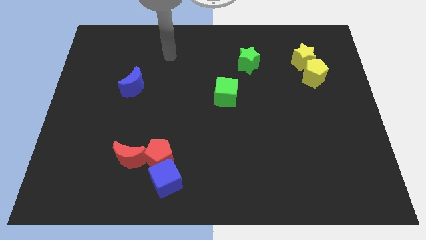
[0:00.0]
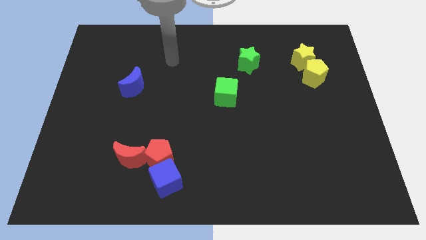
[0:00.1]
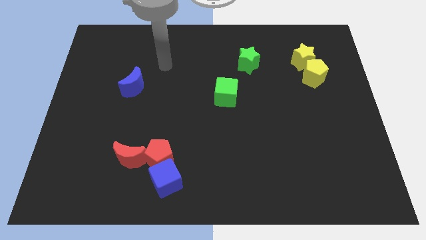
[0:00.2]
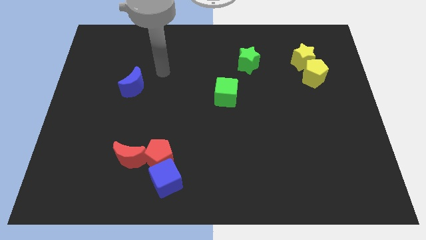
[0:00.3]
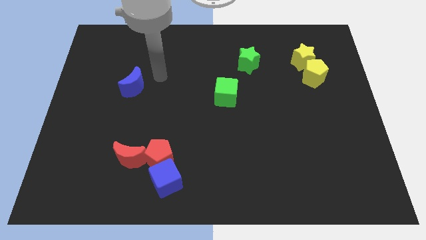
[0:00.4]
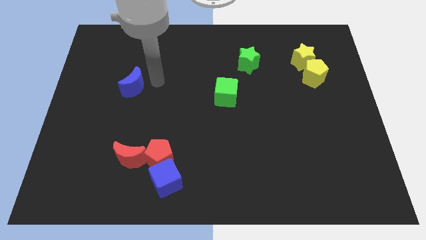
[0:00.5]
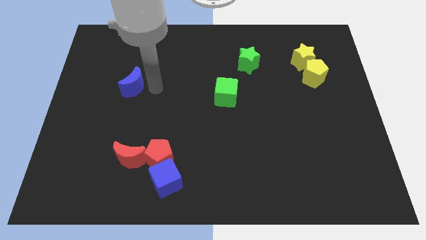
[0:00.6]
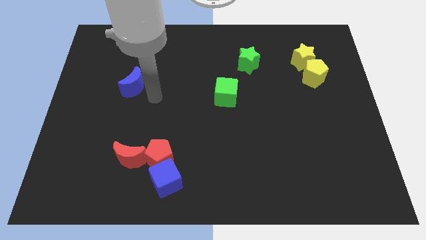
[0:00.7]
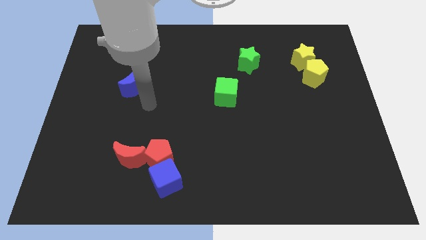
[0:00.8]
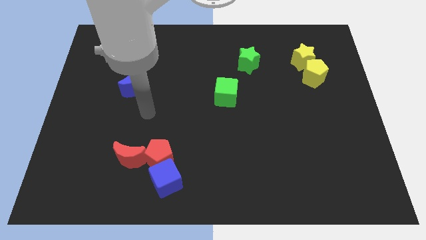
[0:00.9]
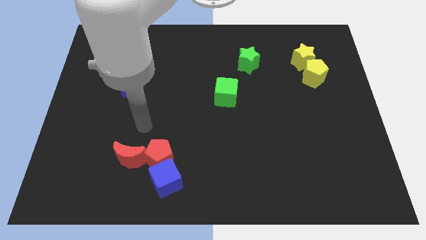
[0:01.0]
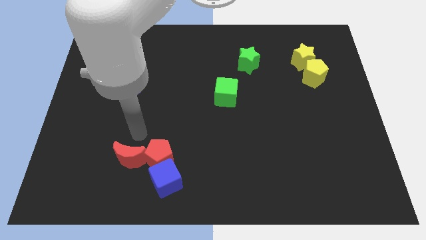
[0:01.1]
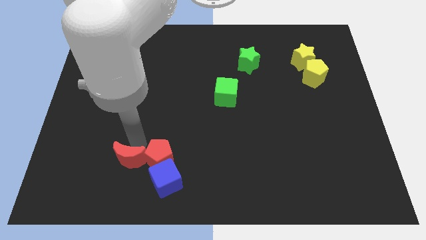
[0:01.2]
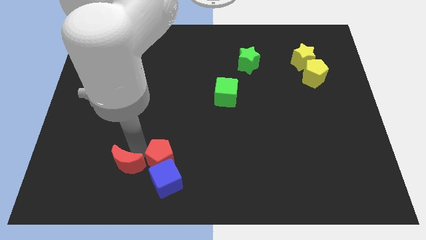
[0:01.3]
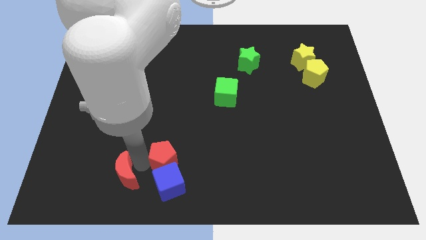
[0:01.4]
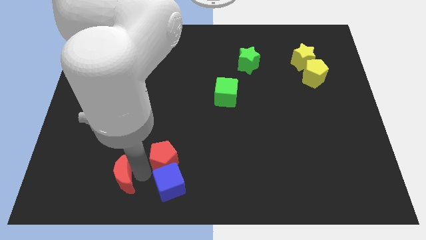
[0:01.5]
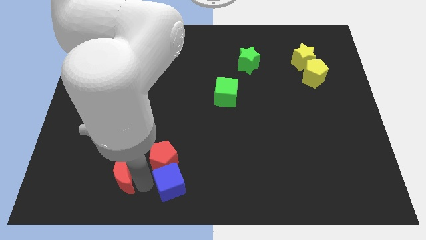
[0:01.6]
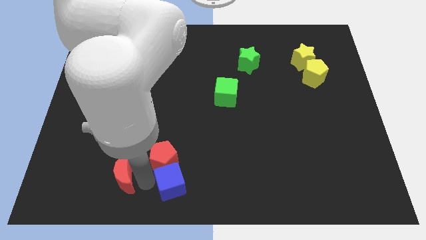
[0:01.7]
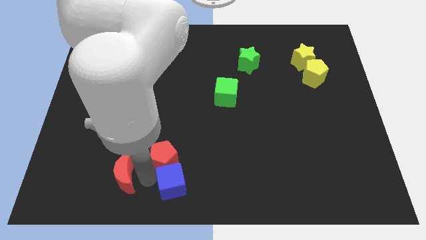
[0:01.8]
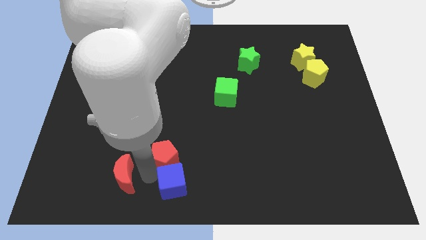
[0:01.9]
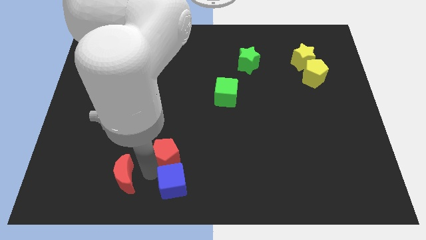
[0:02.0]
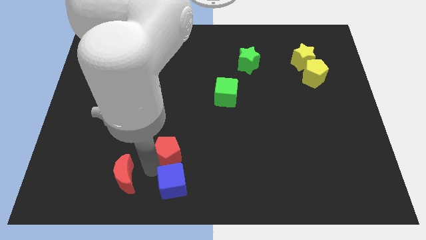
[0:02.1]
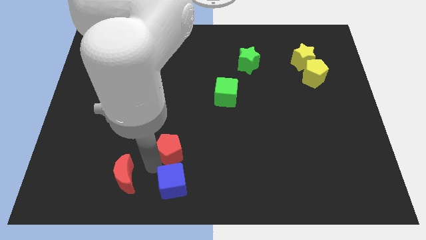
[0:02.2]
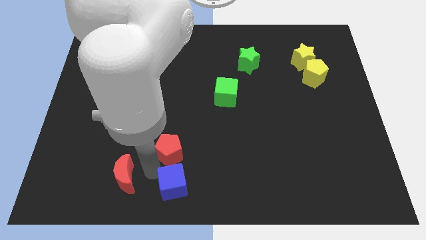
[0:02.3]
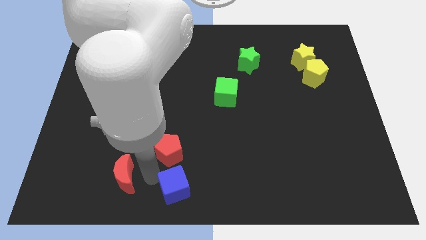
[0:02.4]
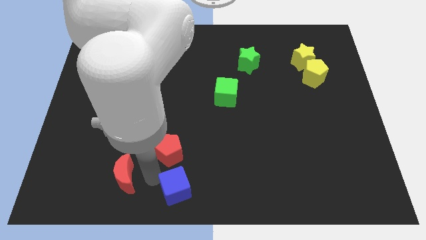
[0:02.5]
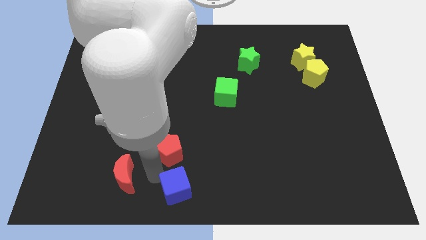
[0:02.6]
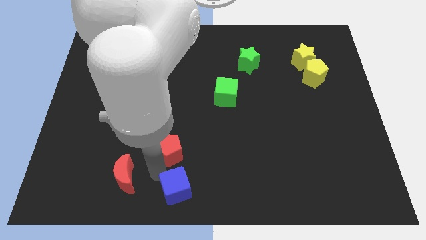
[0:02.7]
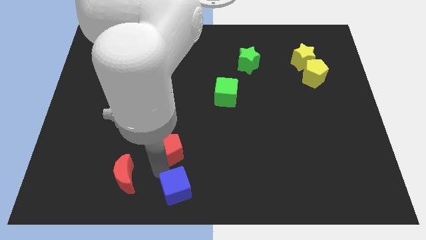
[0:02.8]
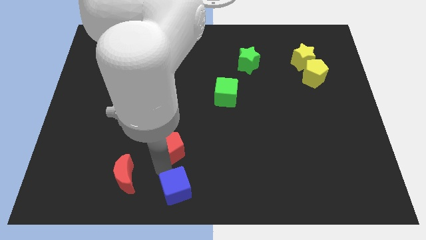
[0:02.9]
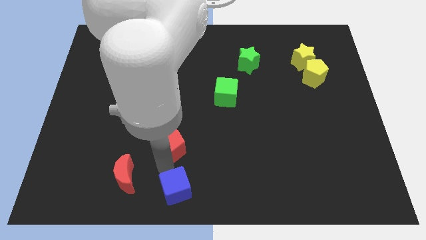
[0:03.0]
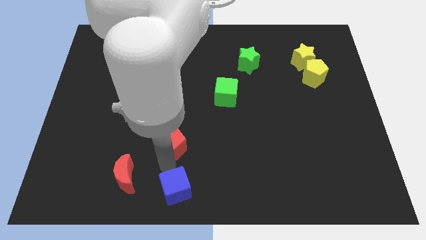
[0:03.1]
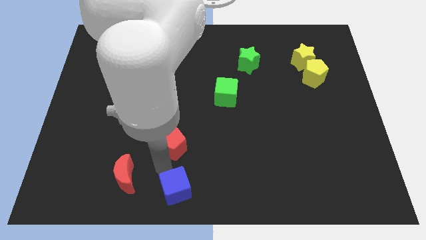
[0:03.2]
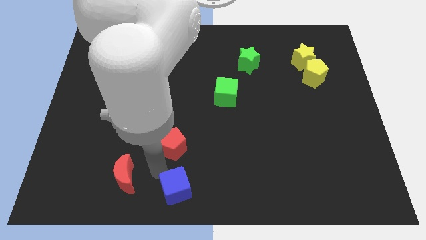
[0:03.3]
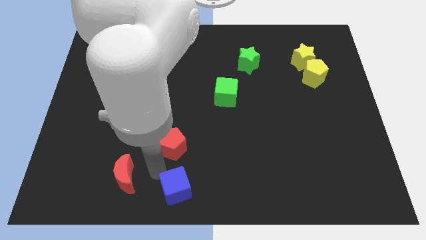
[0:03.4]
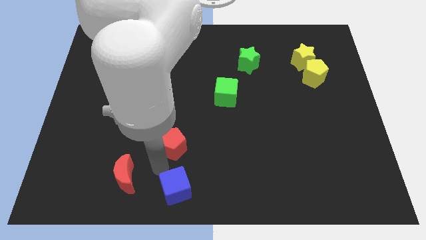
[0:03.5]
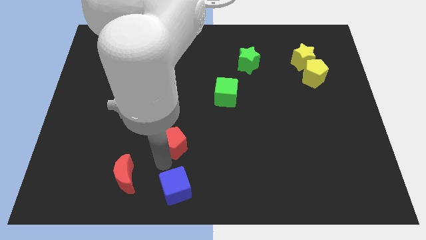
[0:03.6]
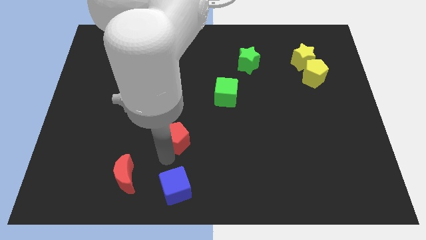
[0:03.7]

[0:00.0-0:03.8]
separate the red pentagon from the blue cube and red moon

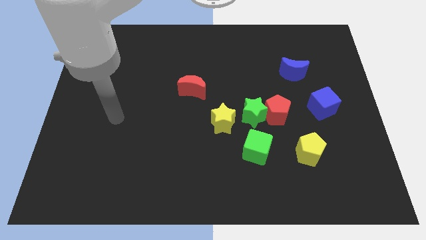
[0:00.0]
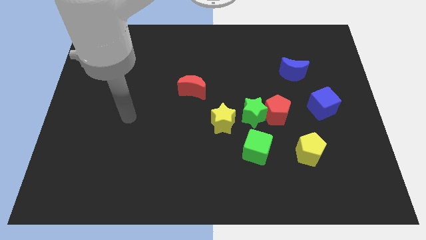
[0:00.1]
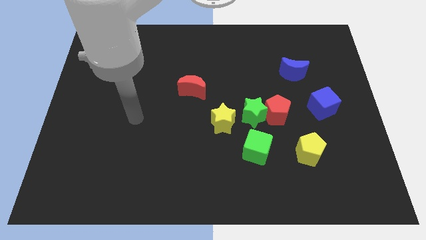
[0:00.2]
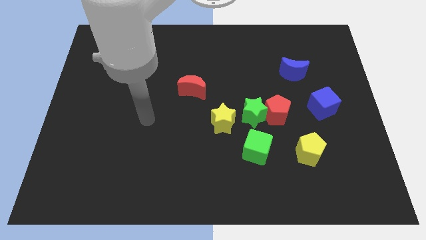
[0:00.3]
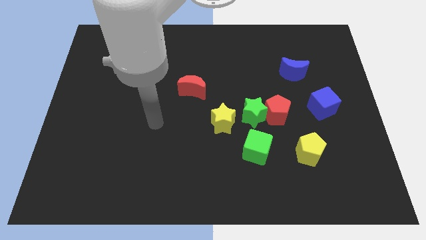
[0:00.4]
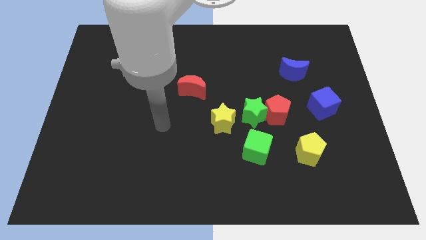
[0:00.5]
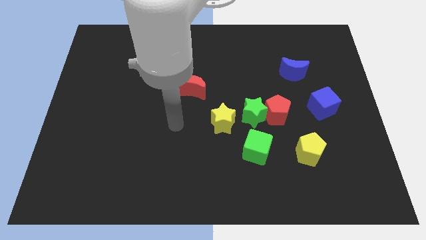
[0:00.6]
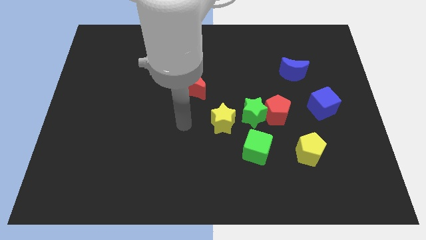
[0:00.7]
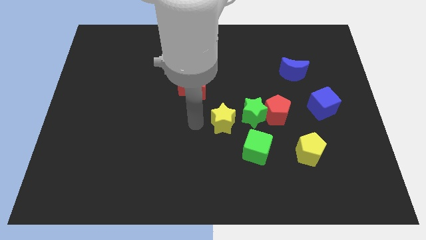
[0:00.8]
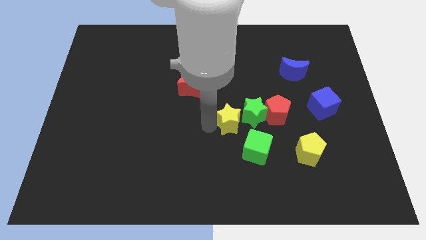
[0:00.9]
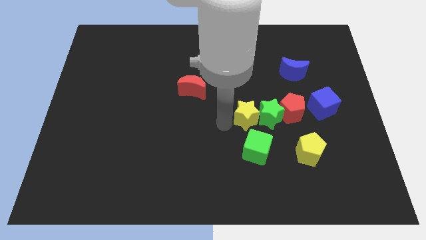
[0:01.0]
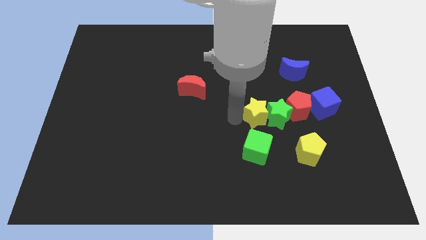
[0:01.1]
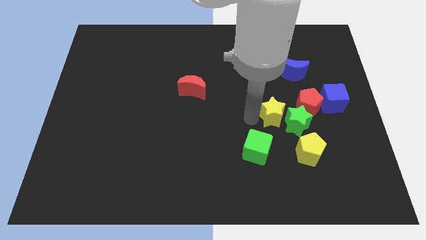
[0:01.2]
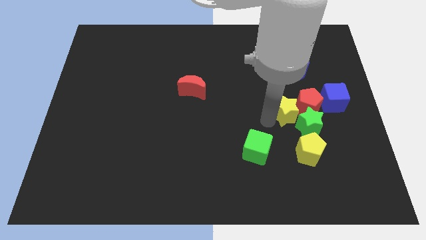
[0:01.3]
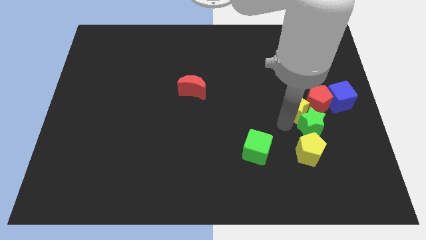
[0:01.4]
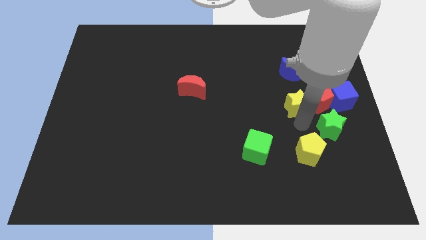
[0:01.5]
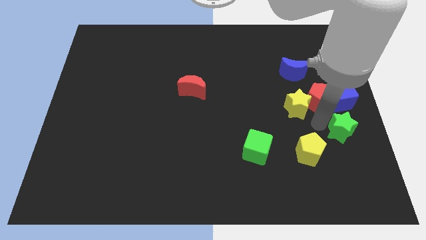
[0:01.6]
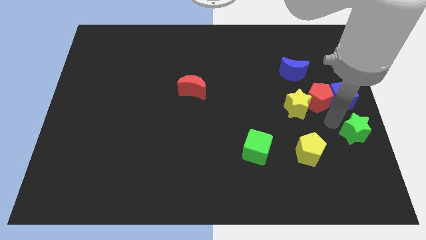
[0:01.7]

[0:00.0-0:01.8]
move the red pentagon away from the green star

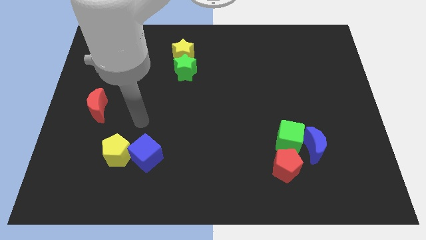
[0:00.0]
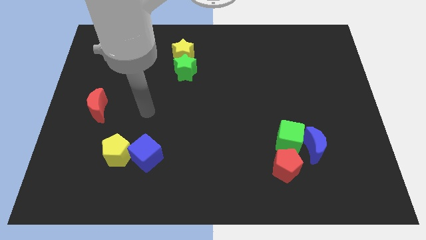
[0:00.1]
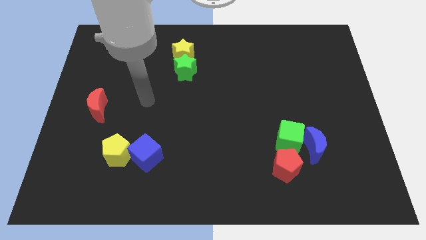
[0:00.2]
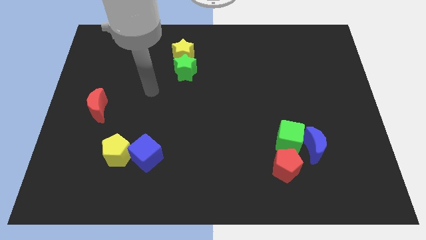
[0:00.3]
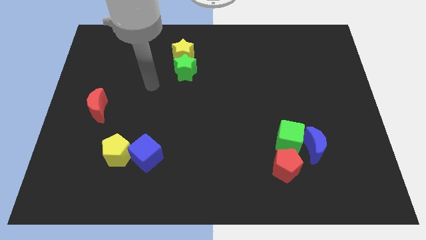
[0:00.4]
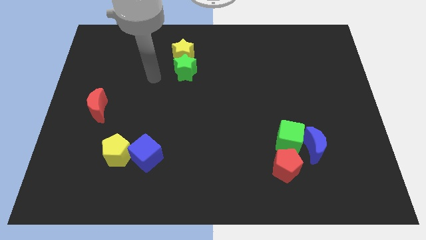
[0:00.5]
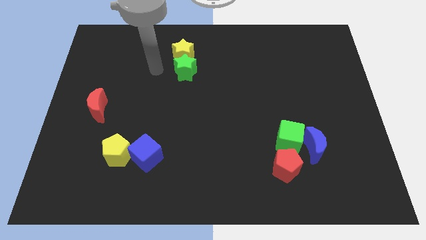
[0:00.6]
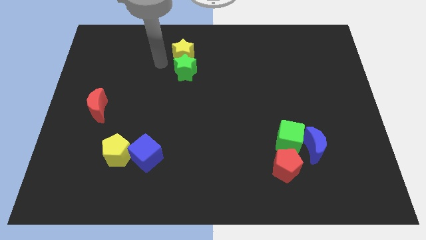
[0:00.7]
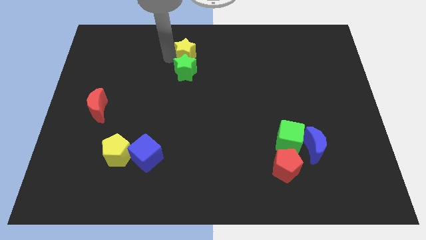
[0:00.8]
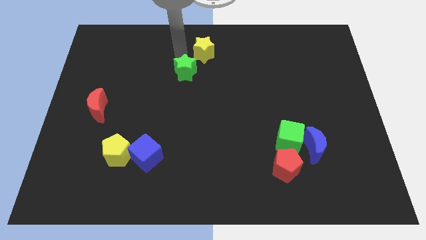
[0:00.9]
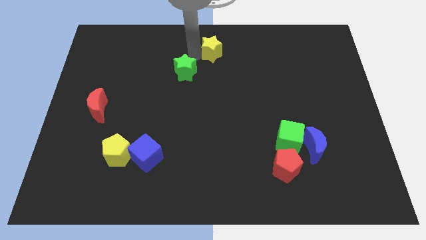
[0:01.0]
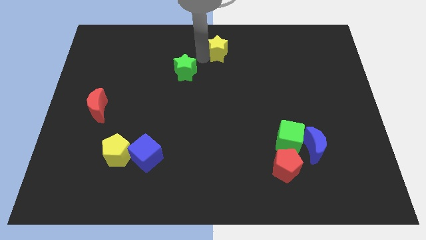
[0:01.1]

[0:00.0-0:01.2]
separate the green star from the yellow star

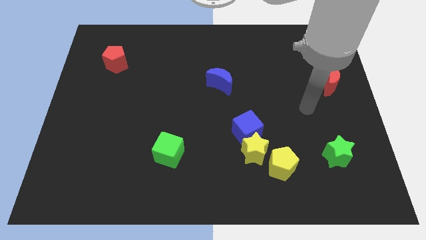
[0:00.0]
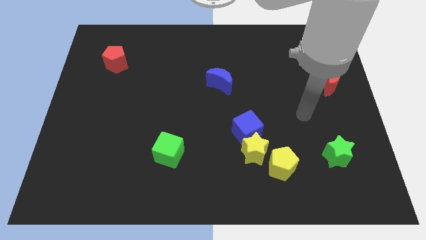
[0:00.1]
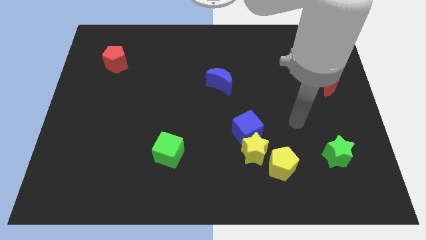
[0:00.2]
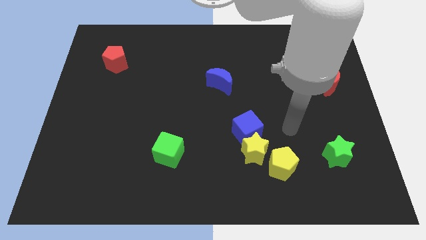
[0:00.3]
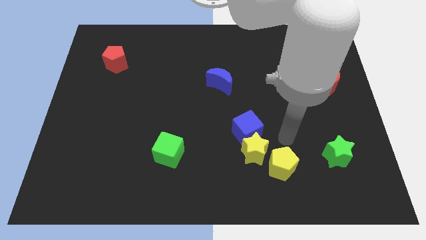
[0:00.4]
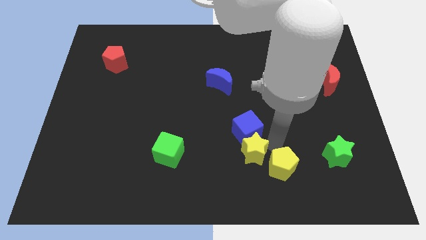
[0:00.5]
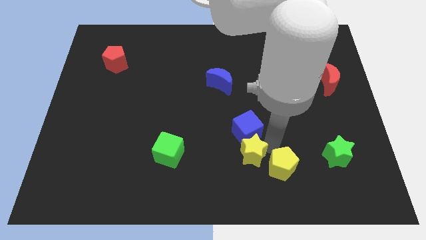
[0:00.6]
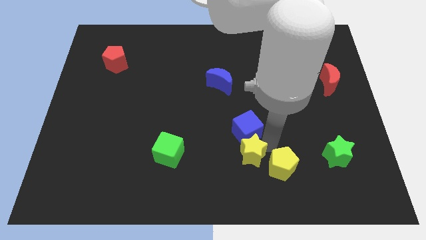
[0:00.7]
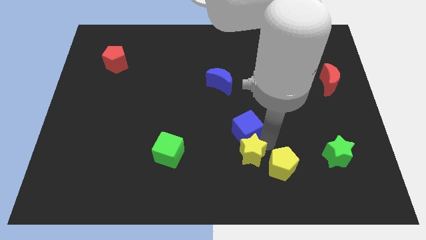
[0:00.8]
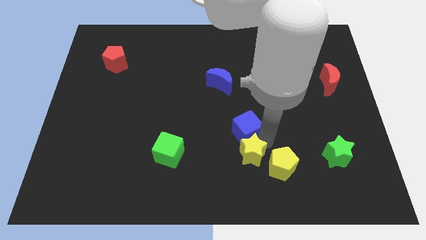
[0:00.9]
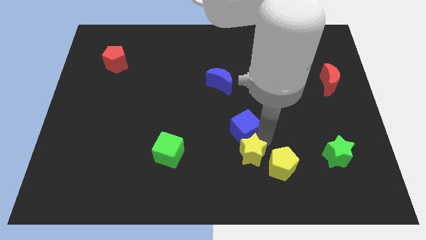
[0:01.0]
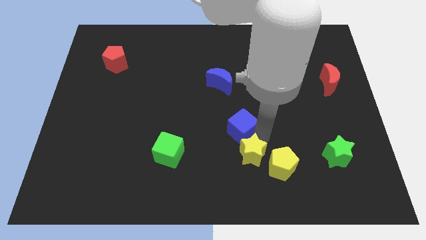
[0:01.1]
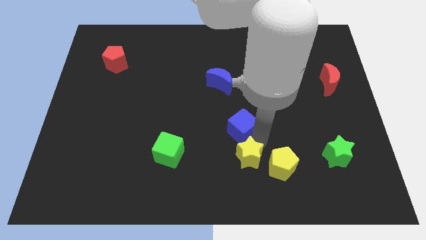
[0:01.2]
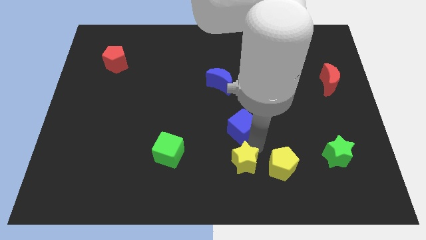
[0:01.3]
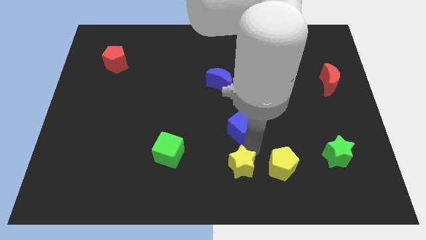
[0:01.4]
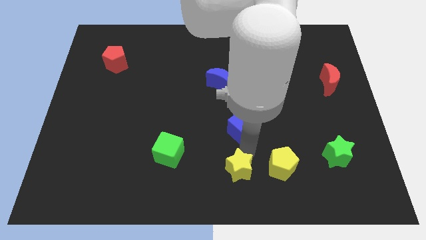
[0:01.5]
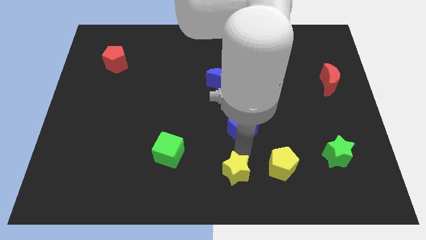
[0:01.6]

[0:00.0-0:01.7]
move the blue cube away from the yellow star

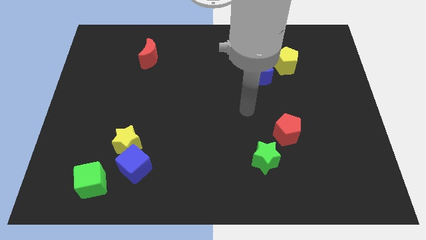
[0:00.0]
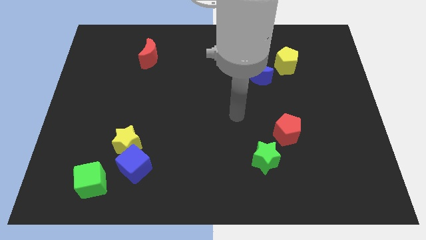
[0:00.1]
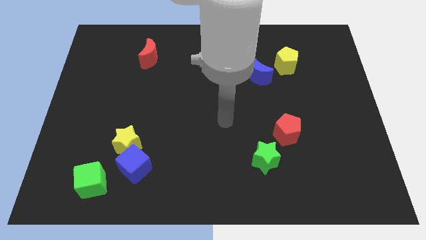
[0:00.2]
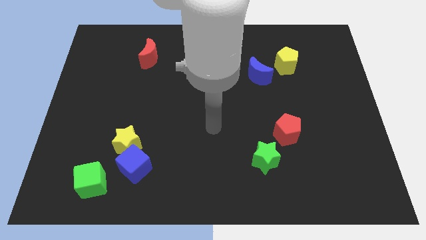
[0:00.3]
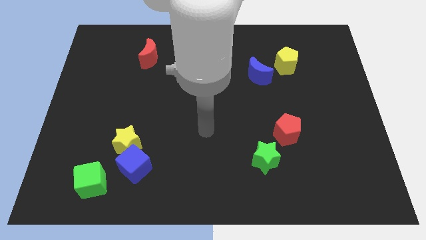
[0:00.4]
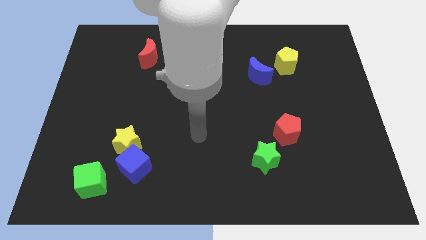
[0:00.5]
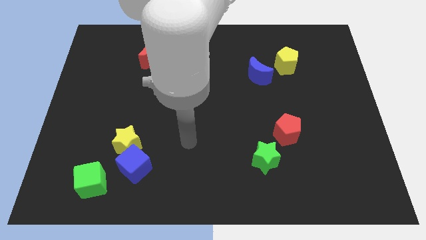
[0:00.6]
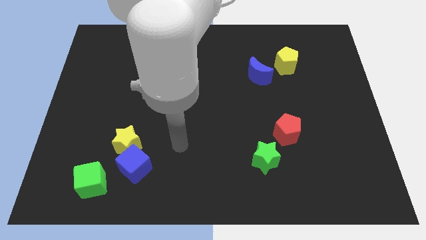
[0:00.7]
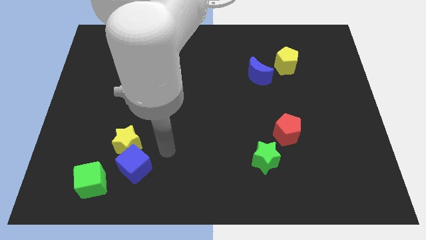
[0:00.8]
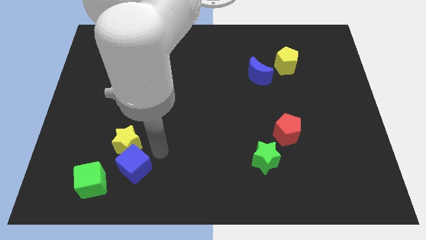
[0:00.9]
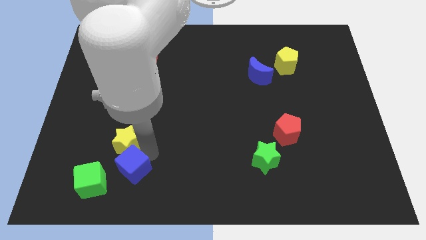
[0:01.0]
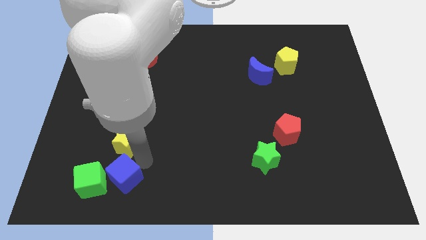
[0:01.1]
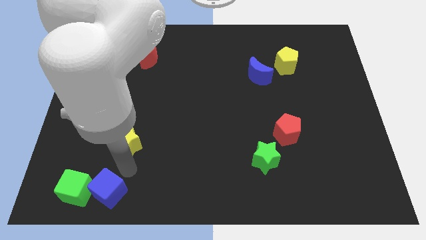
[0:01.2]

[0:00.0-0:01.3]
move the yellow star away from the blue cube
